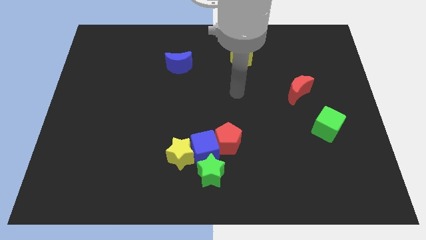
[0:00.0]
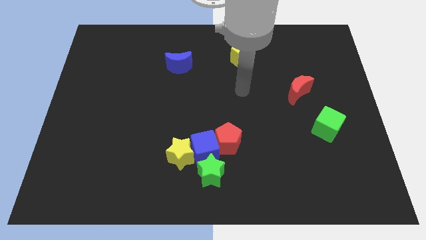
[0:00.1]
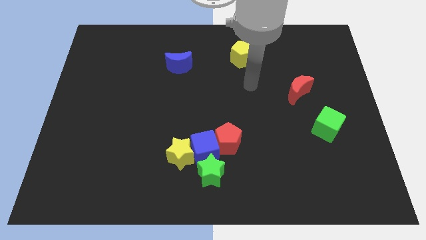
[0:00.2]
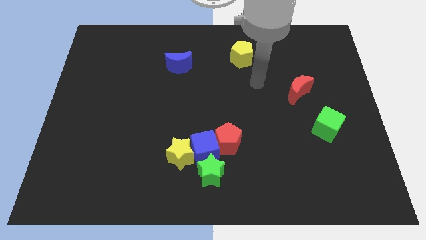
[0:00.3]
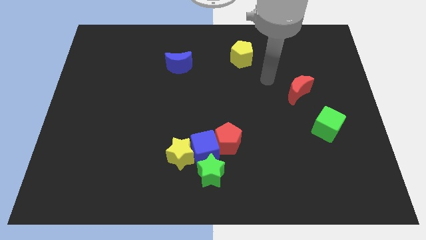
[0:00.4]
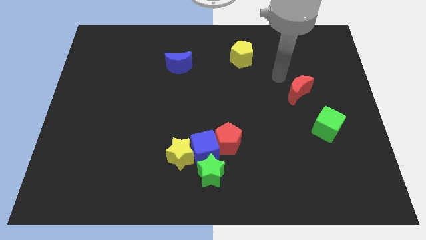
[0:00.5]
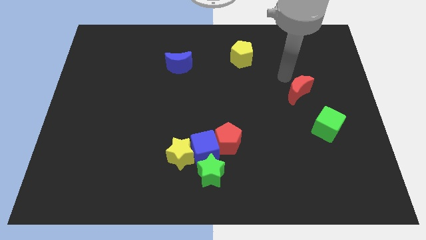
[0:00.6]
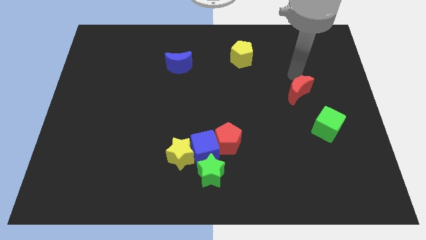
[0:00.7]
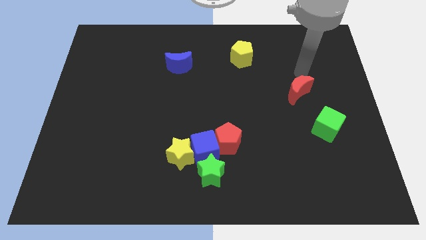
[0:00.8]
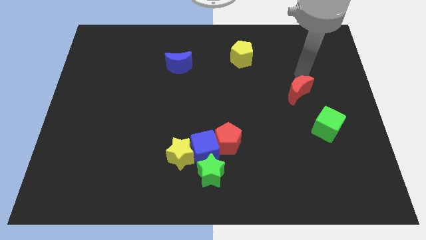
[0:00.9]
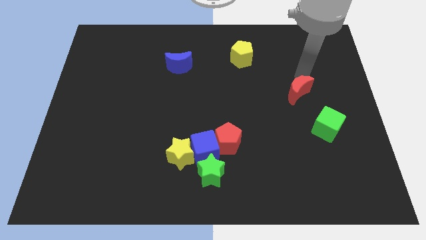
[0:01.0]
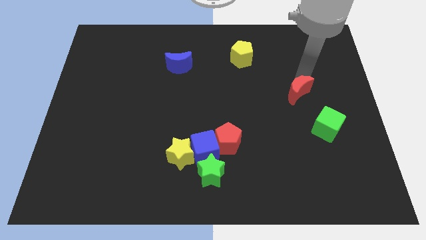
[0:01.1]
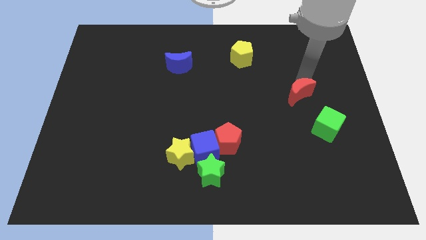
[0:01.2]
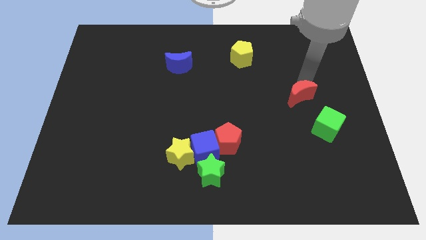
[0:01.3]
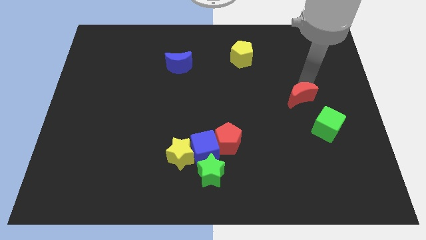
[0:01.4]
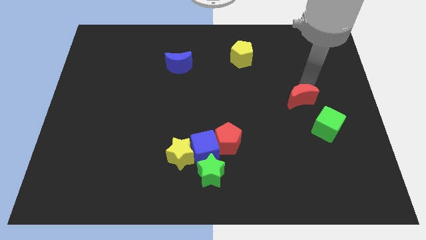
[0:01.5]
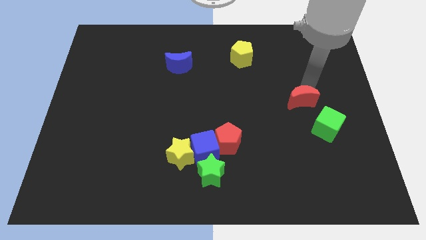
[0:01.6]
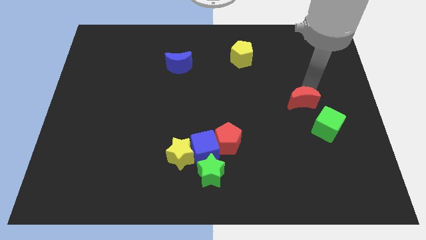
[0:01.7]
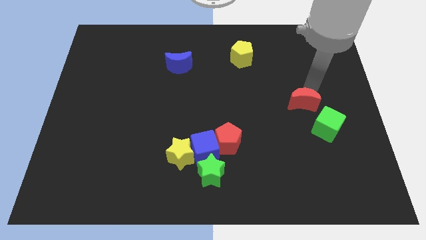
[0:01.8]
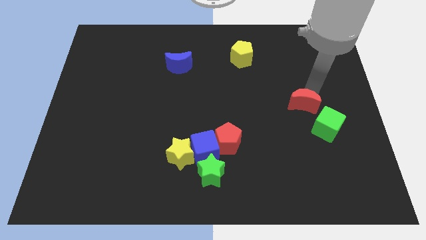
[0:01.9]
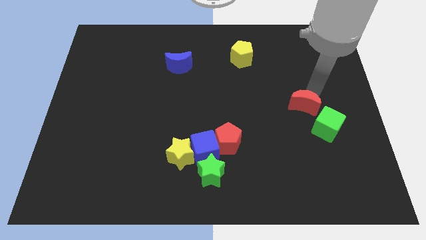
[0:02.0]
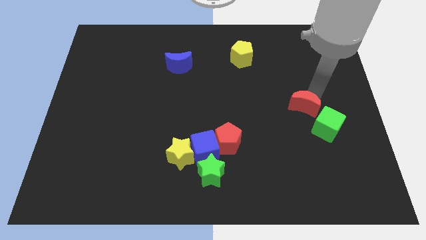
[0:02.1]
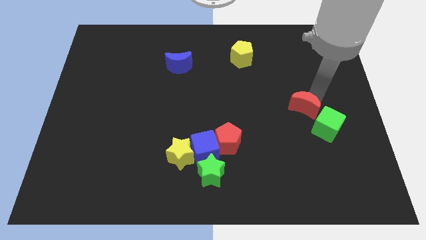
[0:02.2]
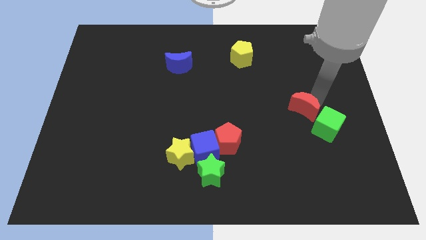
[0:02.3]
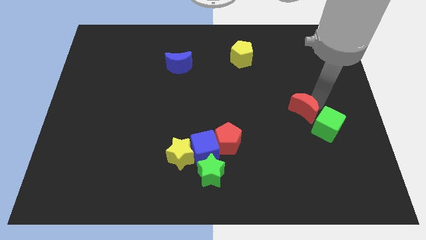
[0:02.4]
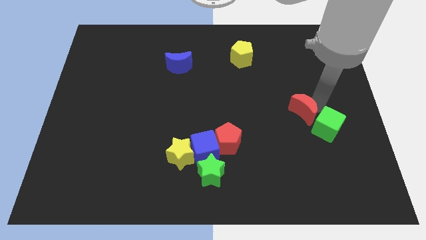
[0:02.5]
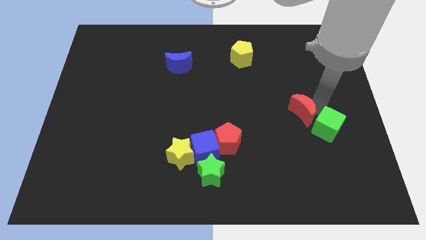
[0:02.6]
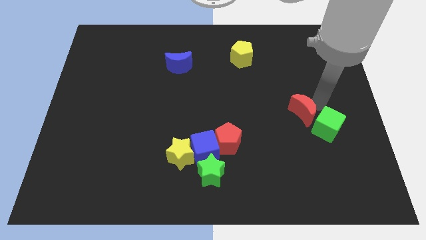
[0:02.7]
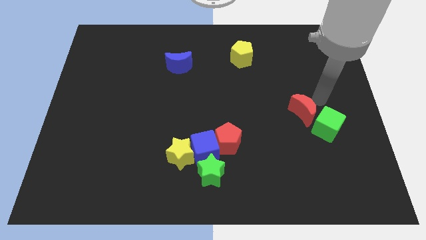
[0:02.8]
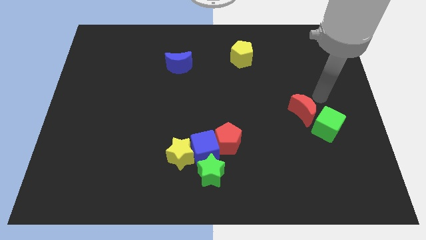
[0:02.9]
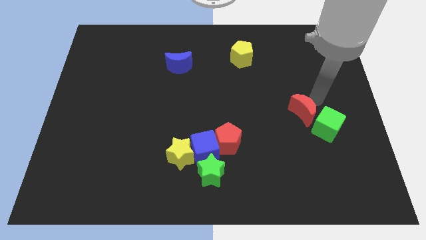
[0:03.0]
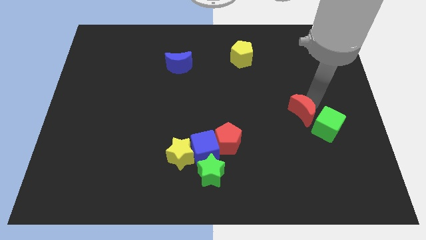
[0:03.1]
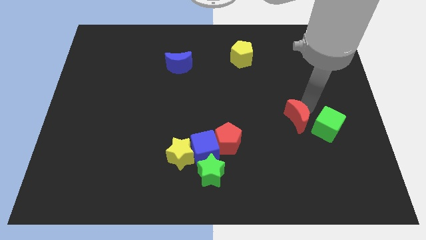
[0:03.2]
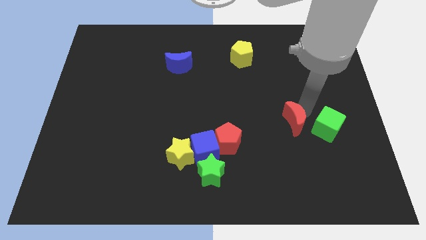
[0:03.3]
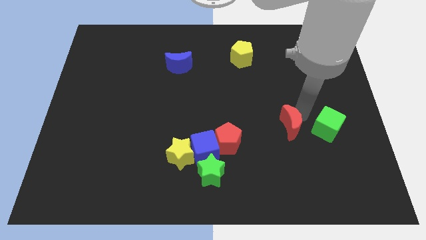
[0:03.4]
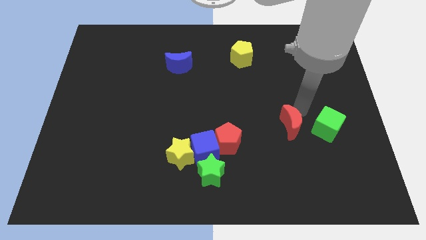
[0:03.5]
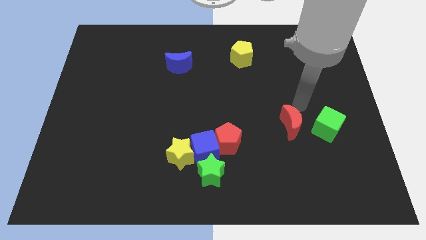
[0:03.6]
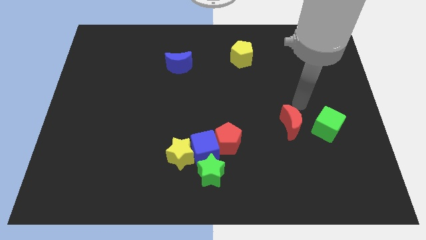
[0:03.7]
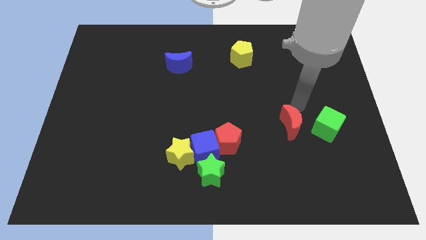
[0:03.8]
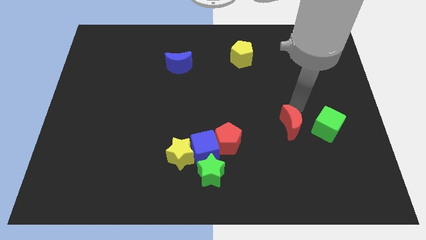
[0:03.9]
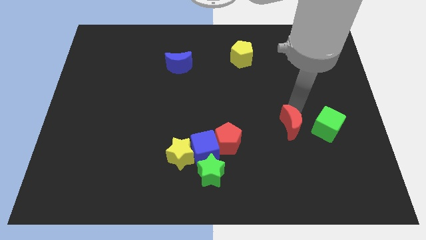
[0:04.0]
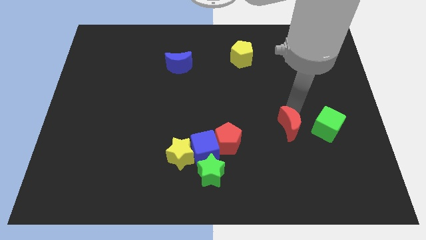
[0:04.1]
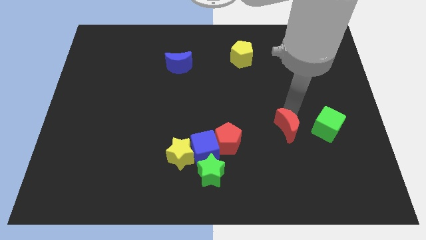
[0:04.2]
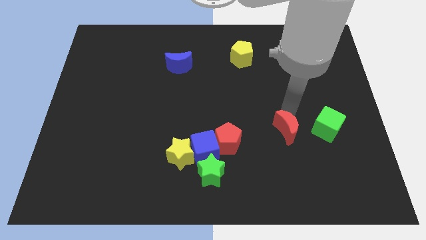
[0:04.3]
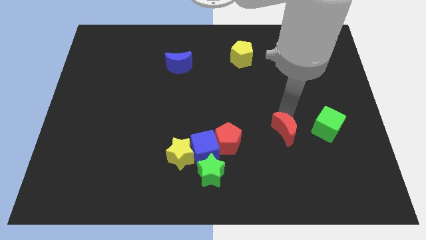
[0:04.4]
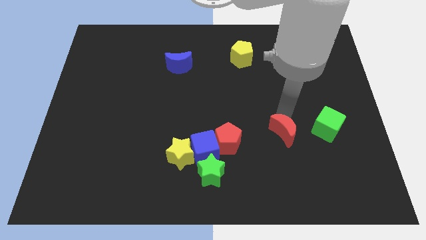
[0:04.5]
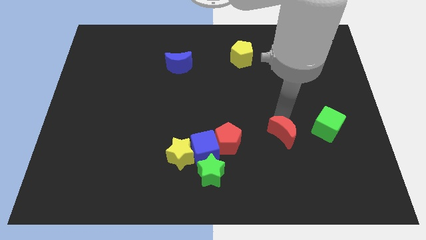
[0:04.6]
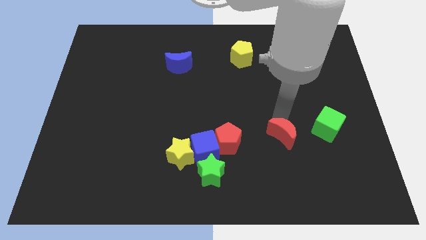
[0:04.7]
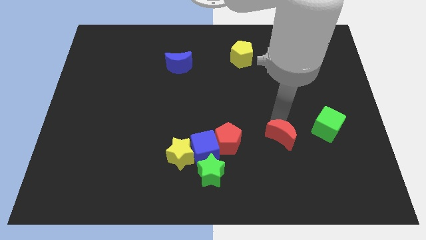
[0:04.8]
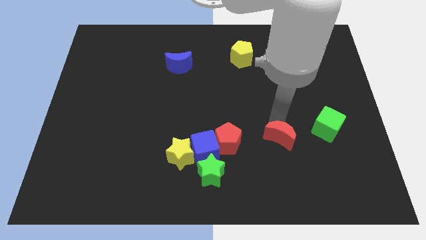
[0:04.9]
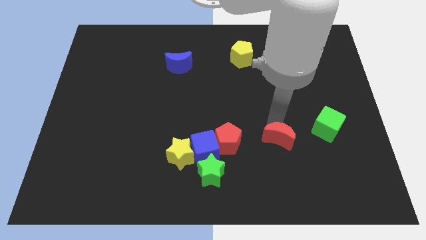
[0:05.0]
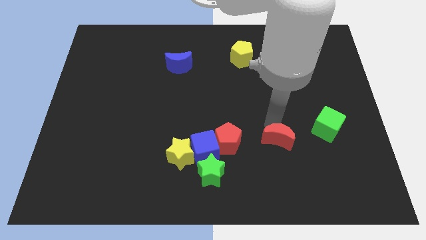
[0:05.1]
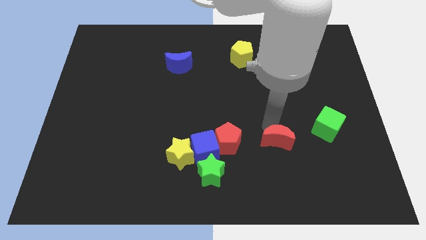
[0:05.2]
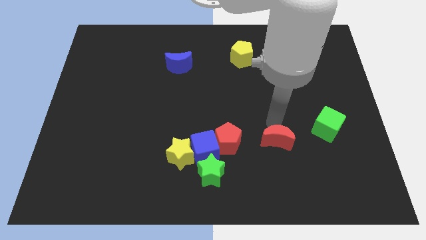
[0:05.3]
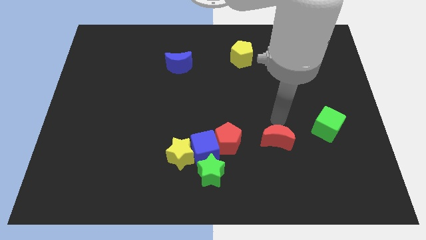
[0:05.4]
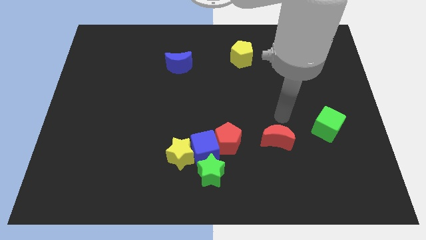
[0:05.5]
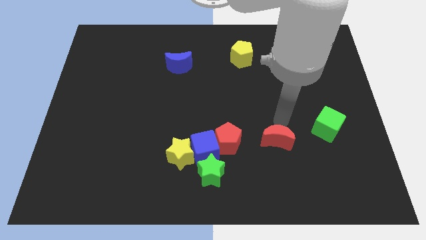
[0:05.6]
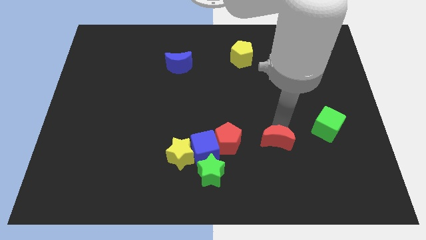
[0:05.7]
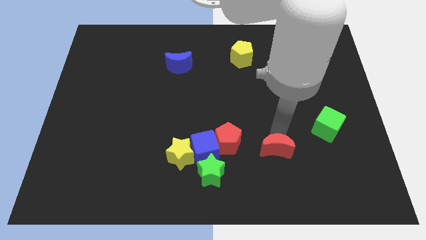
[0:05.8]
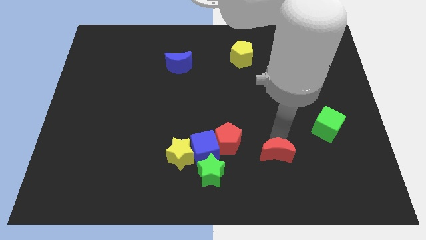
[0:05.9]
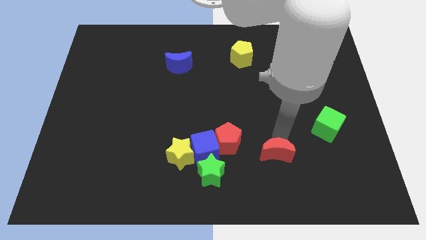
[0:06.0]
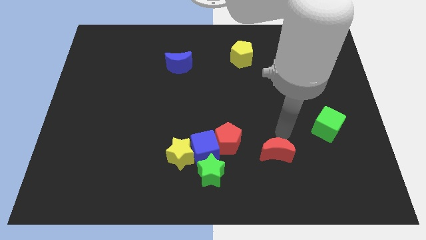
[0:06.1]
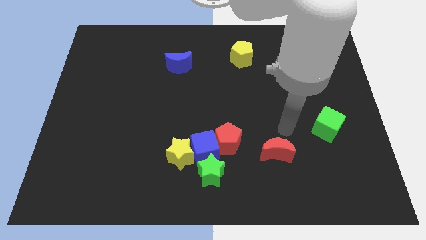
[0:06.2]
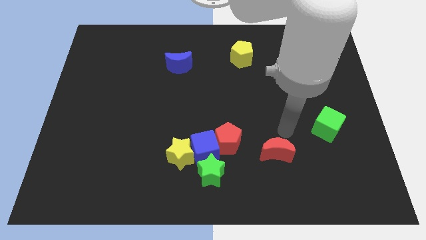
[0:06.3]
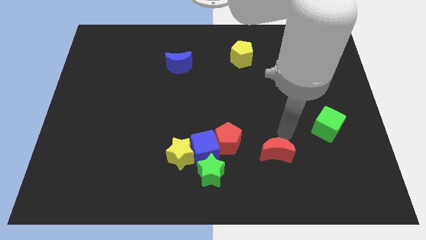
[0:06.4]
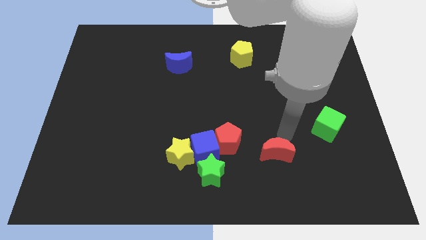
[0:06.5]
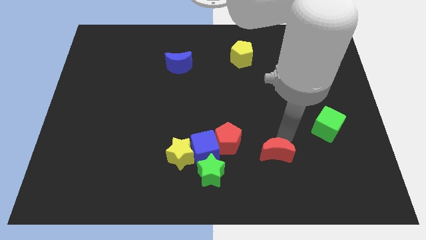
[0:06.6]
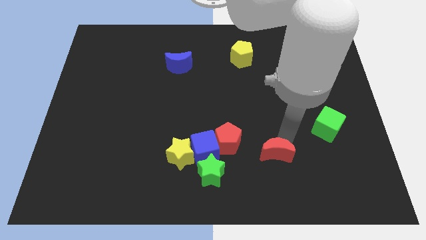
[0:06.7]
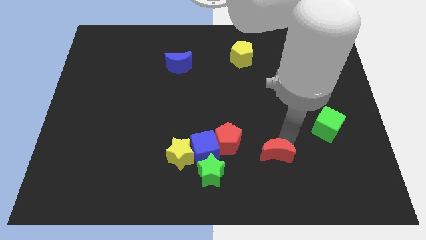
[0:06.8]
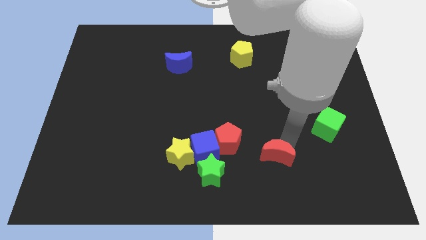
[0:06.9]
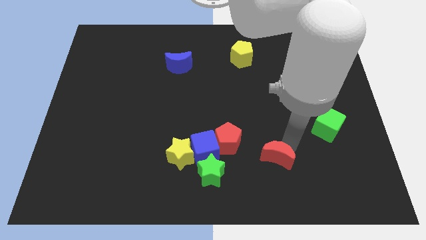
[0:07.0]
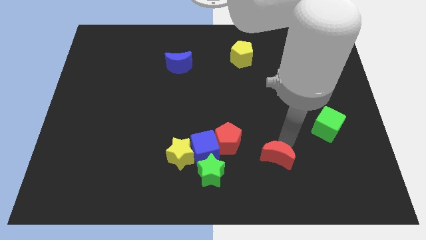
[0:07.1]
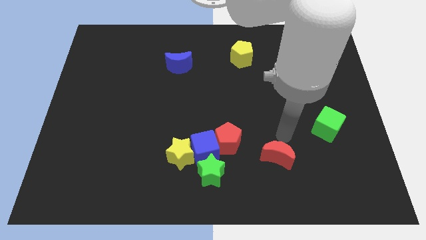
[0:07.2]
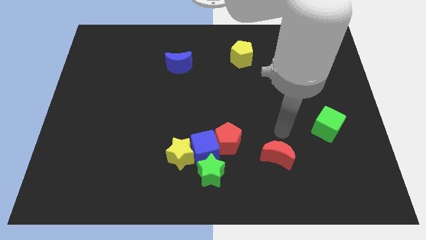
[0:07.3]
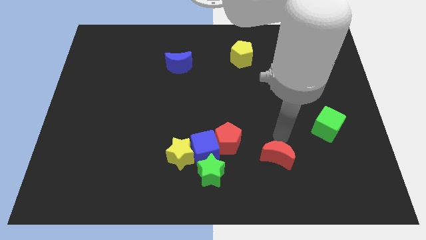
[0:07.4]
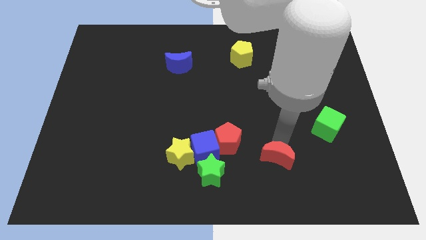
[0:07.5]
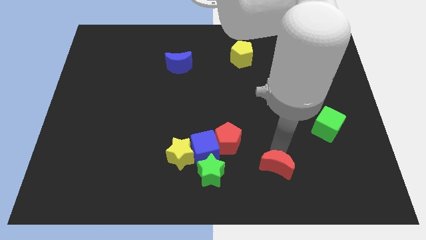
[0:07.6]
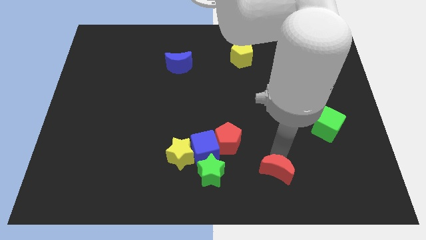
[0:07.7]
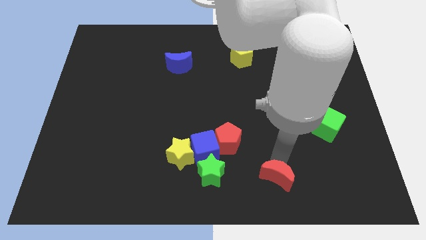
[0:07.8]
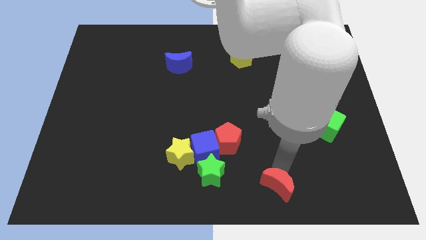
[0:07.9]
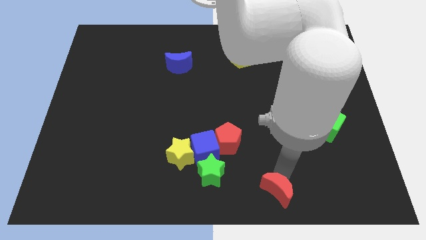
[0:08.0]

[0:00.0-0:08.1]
push the red moon to the bottom
